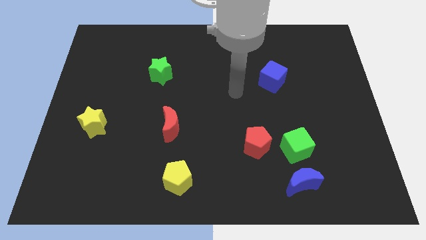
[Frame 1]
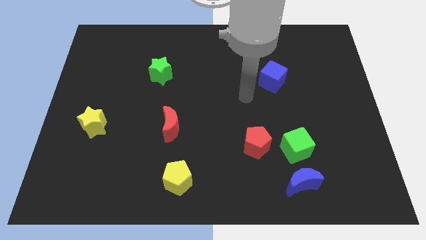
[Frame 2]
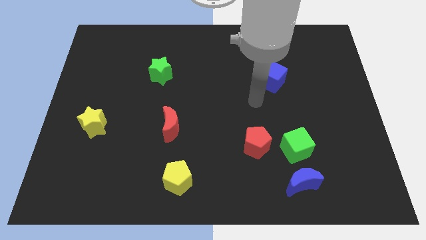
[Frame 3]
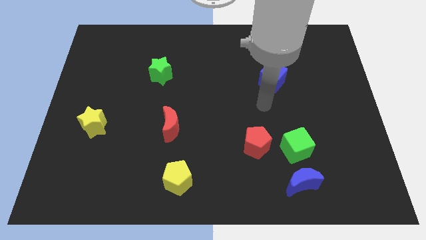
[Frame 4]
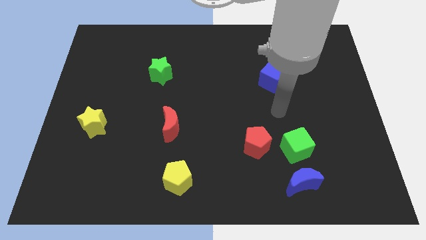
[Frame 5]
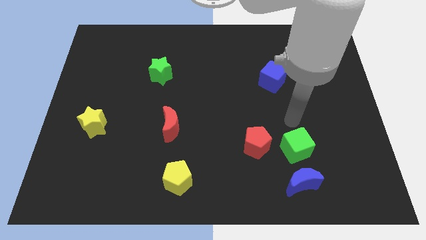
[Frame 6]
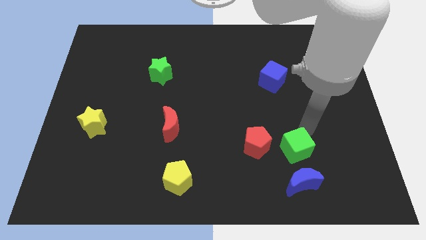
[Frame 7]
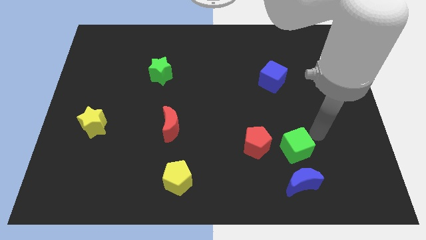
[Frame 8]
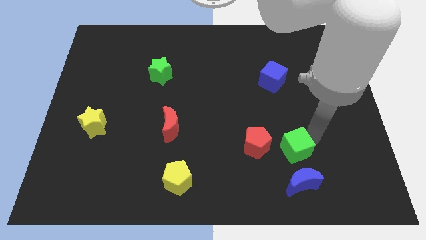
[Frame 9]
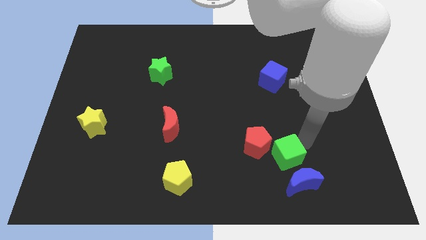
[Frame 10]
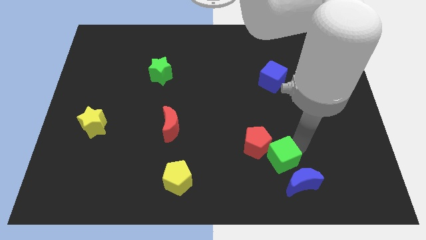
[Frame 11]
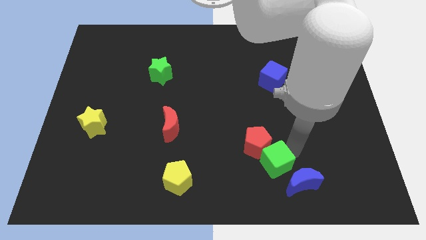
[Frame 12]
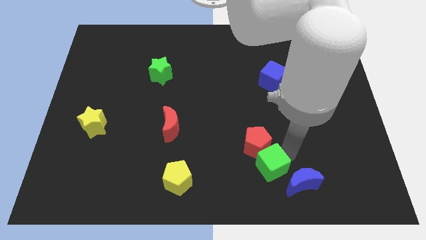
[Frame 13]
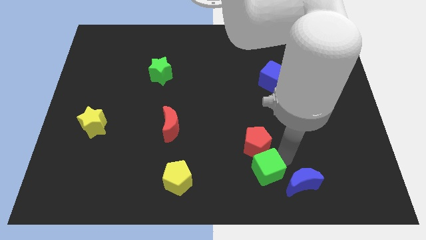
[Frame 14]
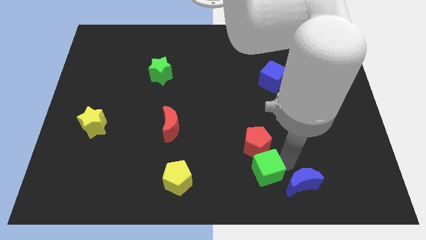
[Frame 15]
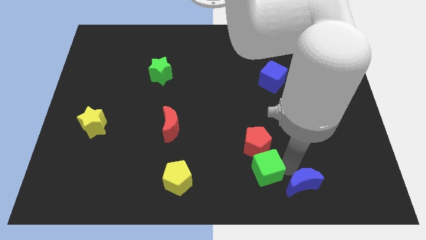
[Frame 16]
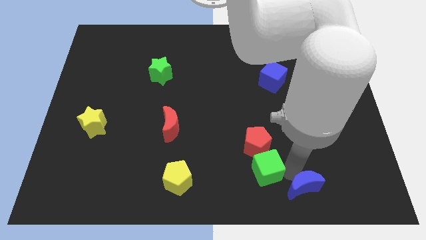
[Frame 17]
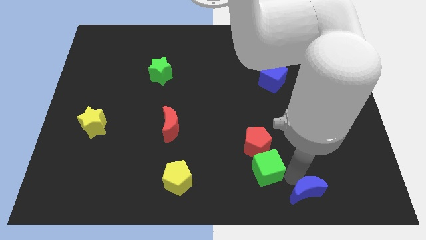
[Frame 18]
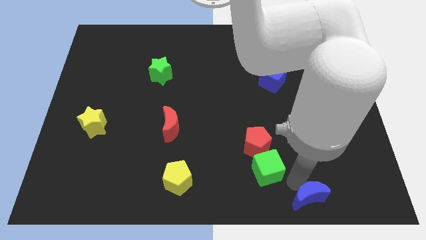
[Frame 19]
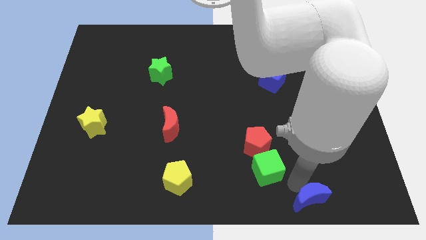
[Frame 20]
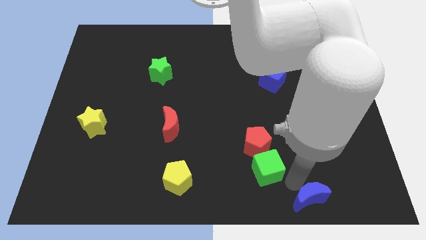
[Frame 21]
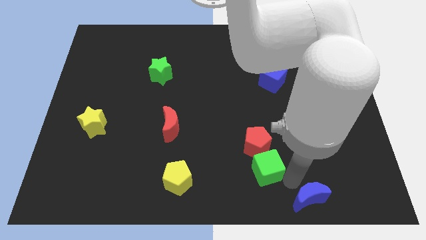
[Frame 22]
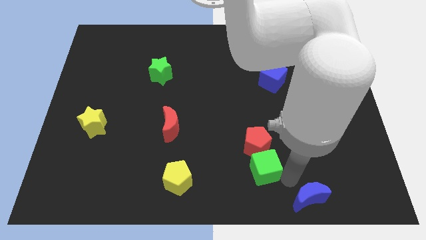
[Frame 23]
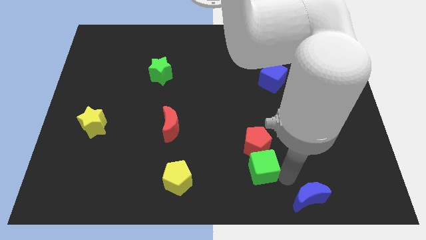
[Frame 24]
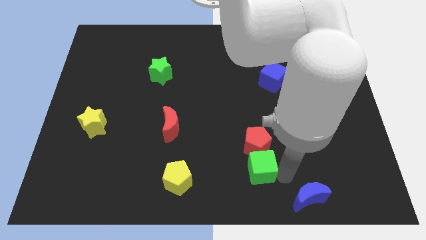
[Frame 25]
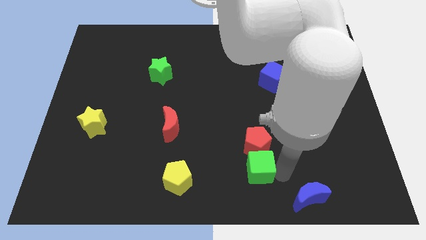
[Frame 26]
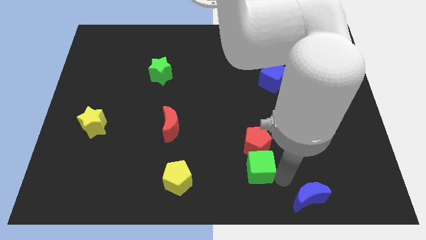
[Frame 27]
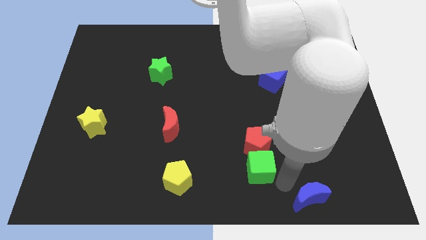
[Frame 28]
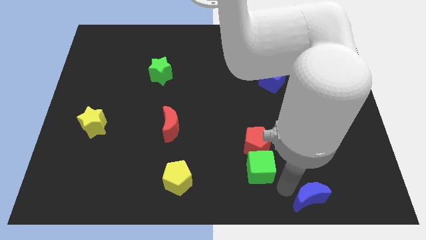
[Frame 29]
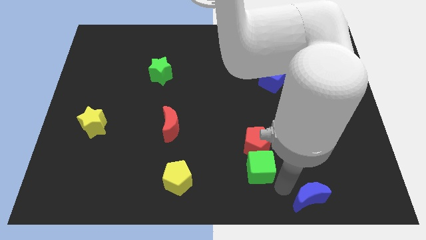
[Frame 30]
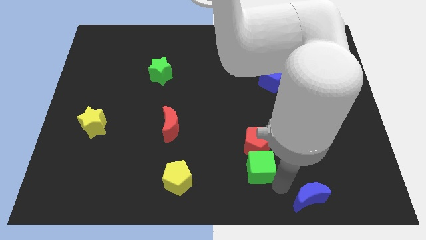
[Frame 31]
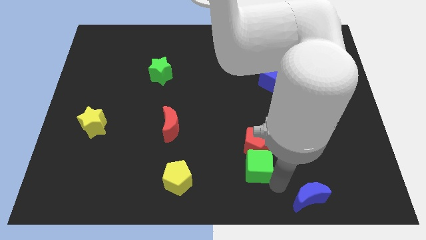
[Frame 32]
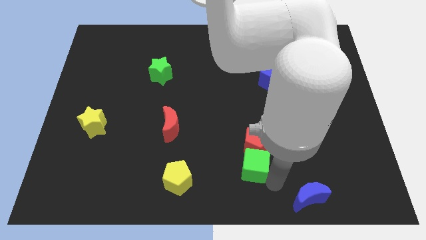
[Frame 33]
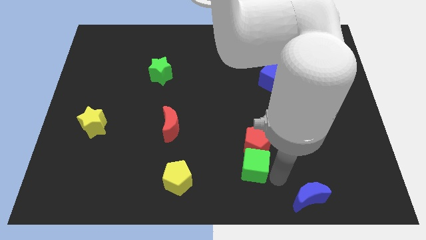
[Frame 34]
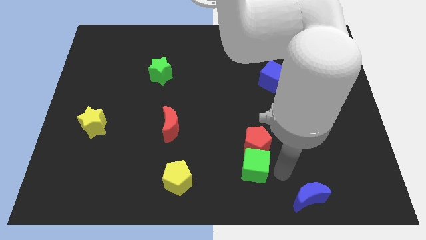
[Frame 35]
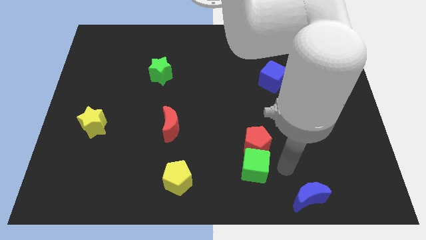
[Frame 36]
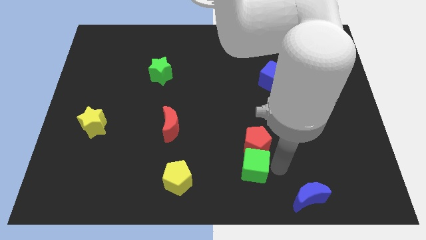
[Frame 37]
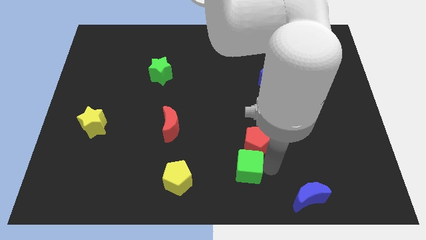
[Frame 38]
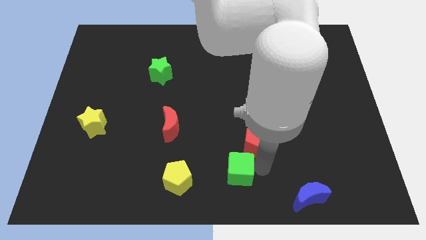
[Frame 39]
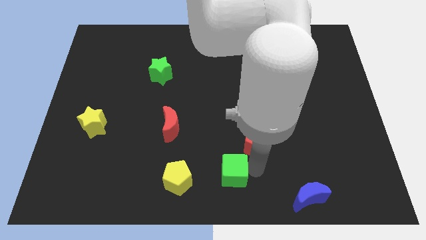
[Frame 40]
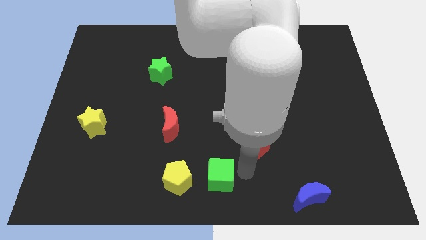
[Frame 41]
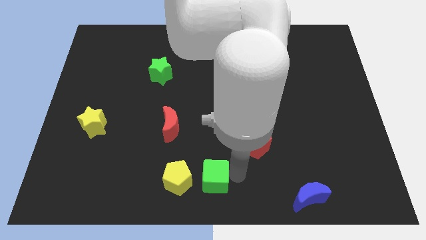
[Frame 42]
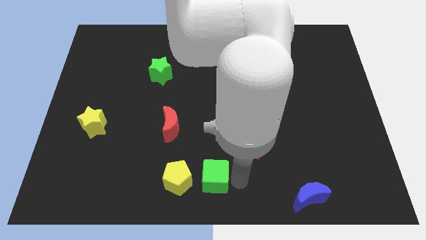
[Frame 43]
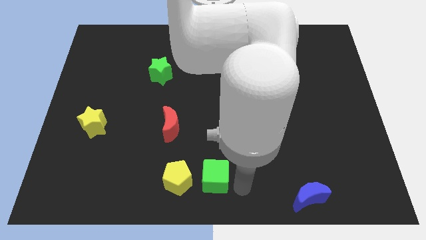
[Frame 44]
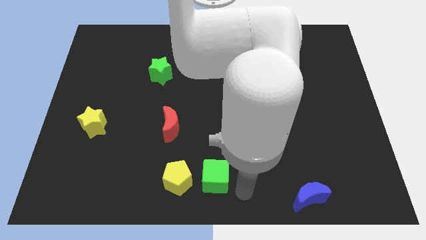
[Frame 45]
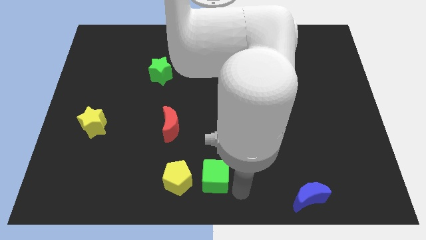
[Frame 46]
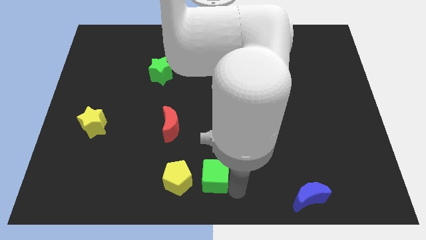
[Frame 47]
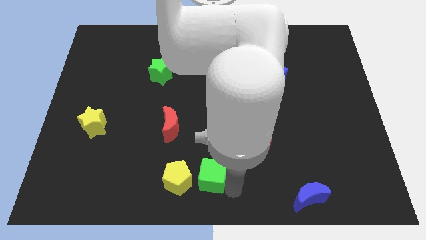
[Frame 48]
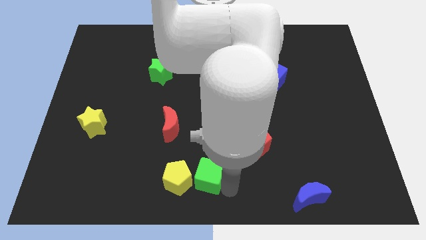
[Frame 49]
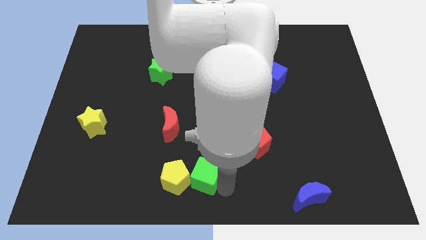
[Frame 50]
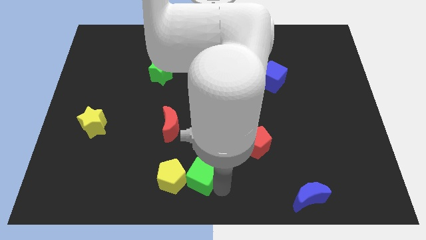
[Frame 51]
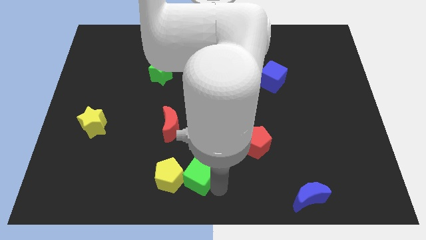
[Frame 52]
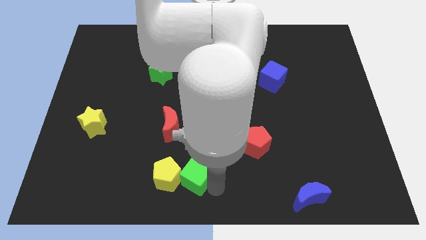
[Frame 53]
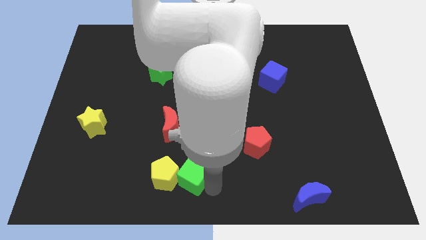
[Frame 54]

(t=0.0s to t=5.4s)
slide the green cube left

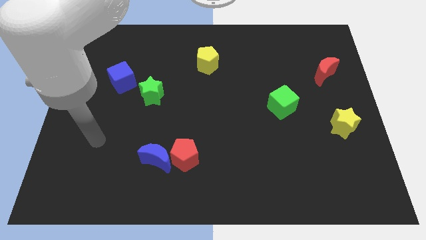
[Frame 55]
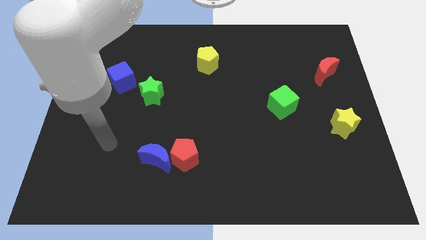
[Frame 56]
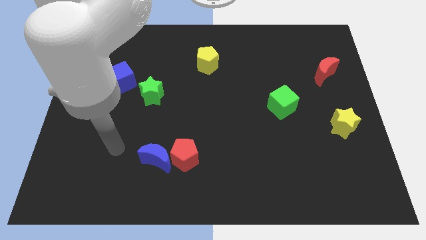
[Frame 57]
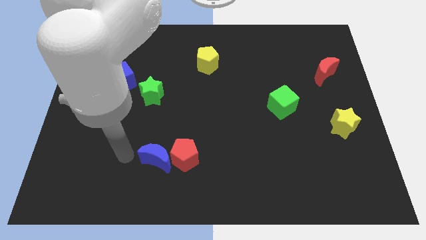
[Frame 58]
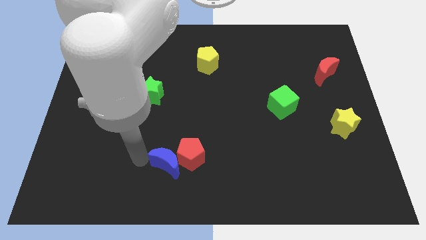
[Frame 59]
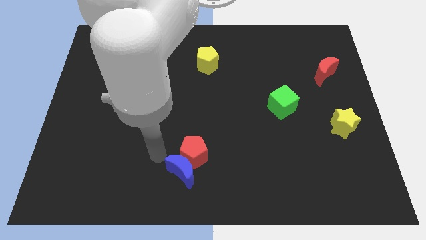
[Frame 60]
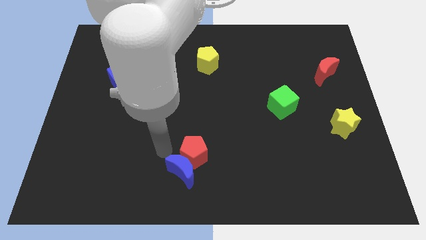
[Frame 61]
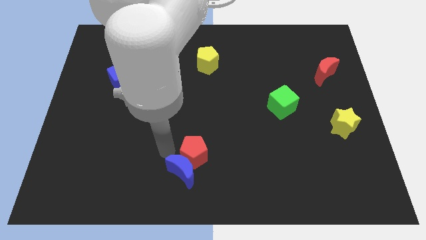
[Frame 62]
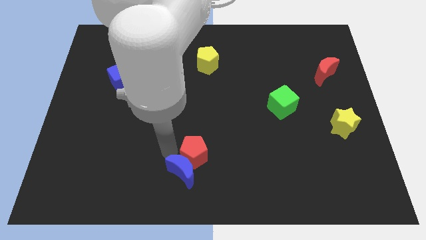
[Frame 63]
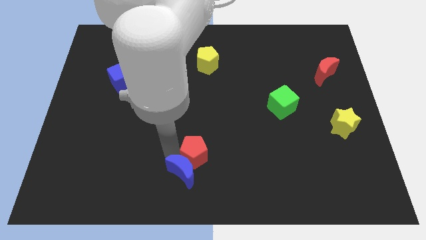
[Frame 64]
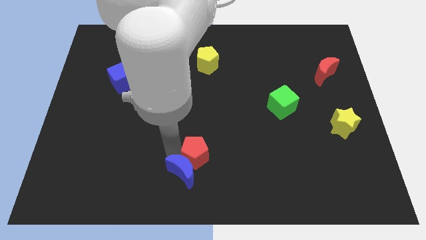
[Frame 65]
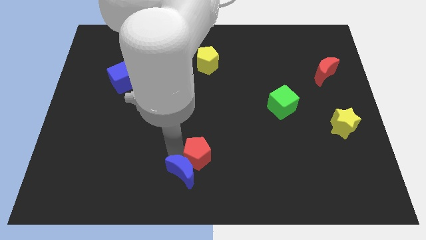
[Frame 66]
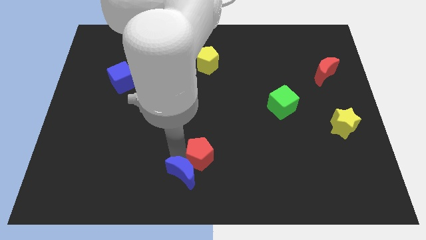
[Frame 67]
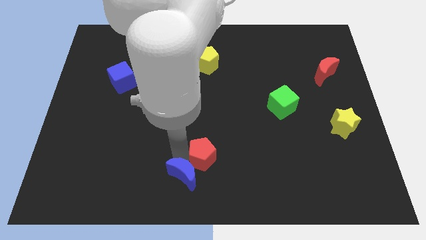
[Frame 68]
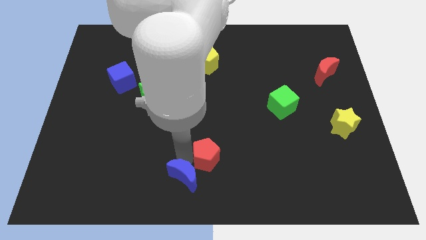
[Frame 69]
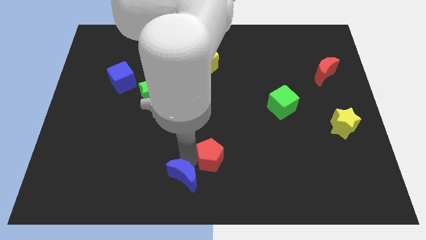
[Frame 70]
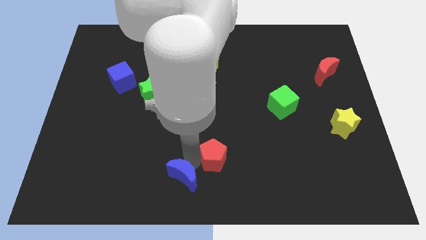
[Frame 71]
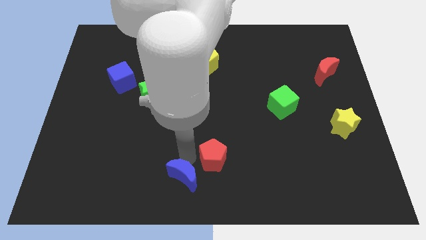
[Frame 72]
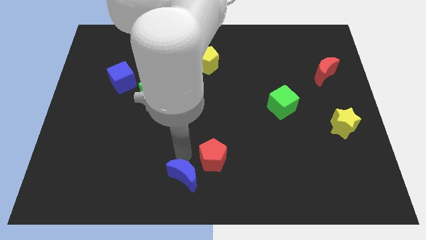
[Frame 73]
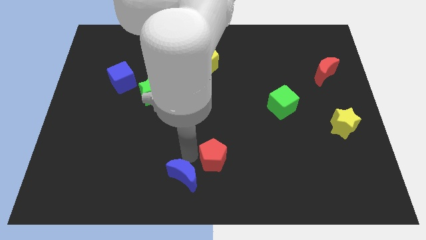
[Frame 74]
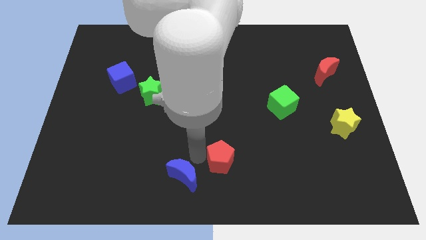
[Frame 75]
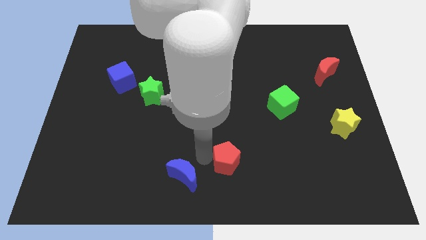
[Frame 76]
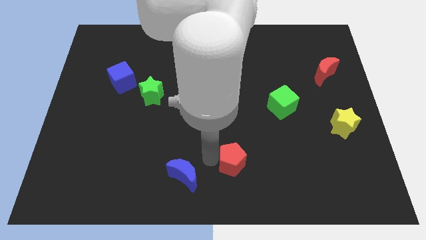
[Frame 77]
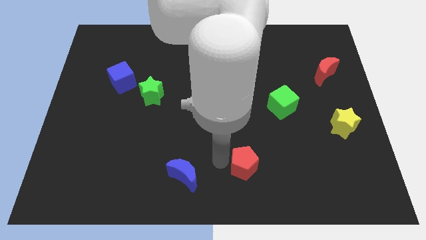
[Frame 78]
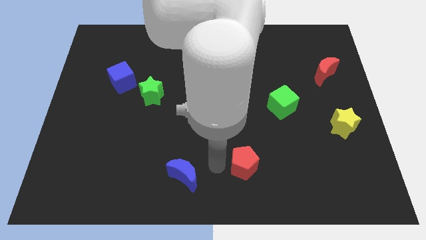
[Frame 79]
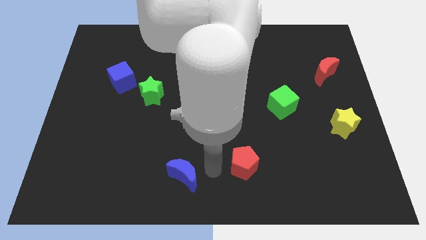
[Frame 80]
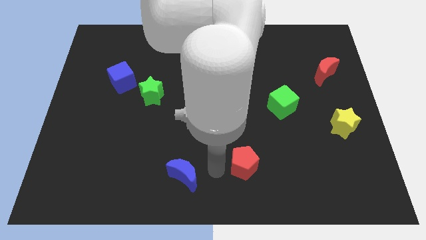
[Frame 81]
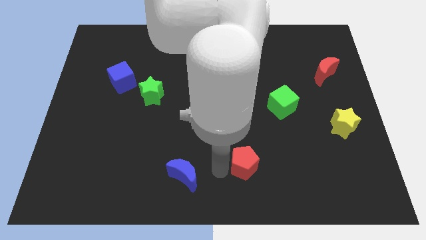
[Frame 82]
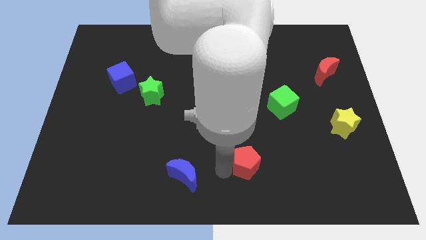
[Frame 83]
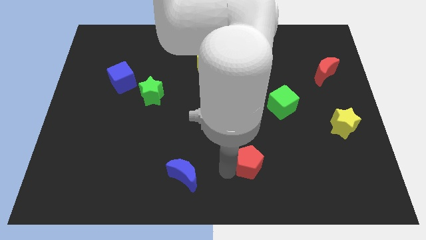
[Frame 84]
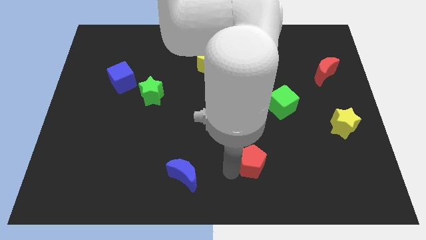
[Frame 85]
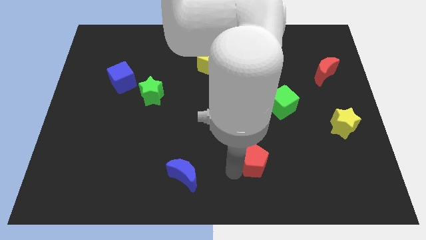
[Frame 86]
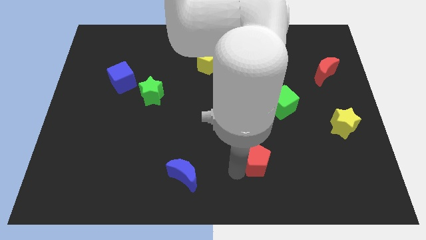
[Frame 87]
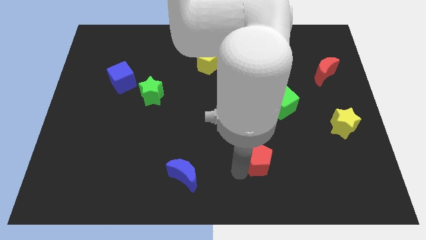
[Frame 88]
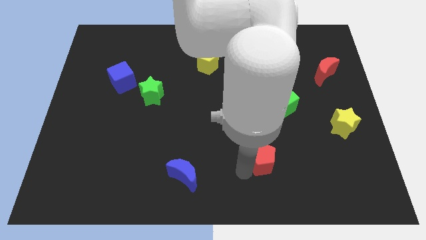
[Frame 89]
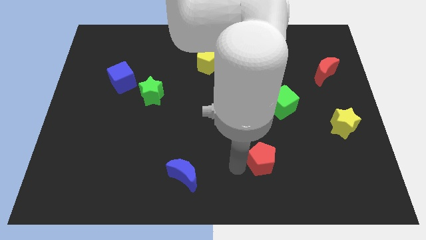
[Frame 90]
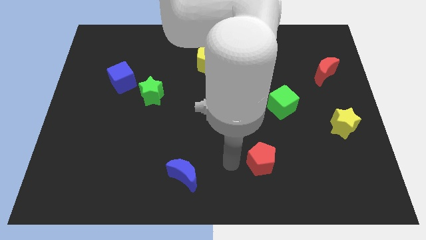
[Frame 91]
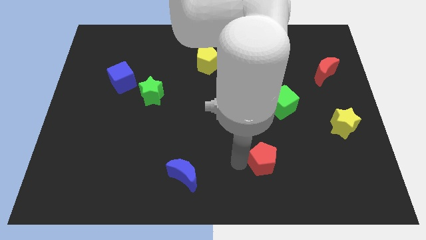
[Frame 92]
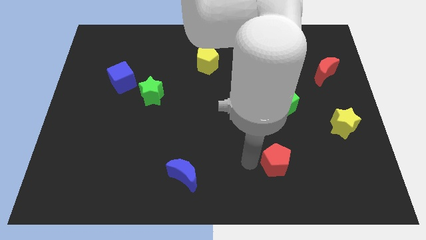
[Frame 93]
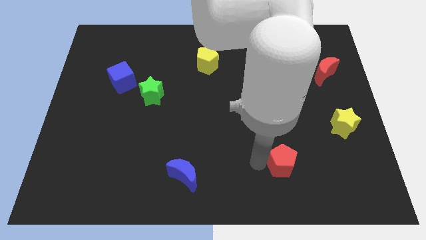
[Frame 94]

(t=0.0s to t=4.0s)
slide the red pentagon to the right
